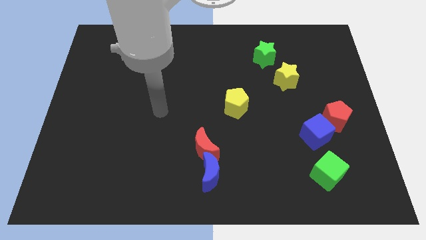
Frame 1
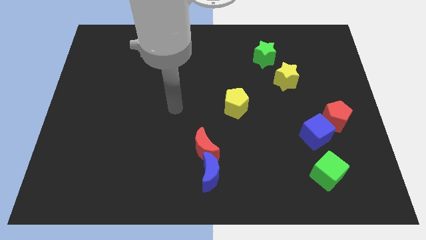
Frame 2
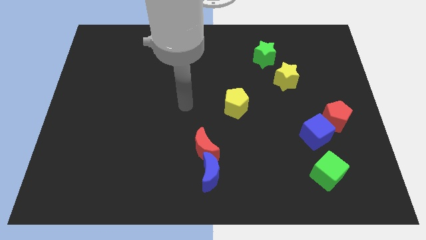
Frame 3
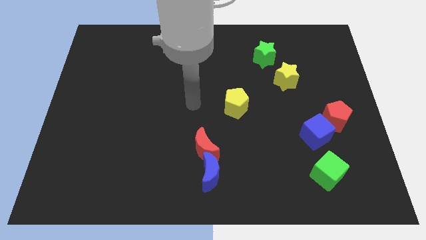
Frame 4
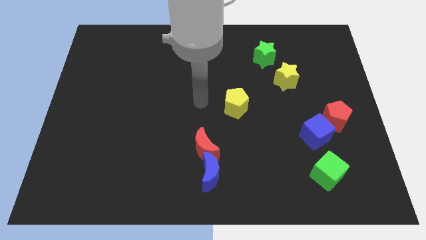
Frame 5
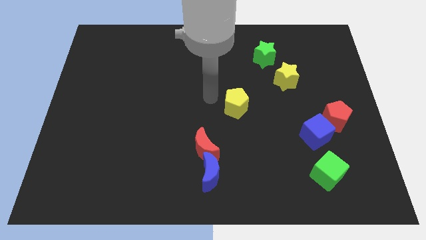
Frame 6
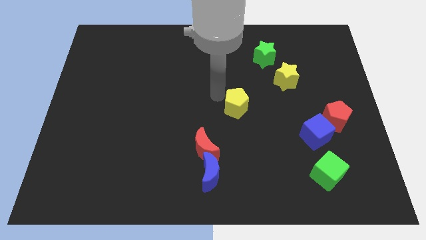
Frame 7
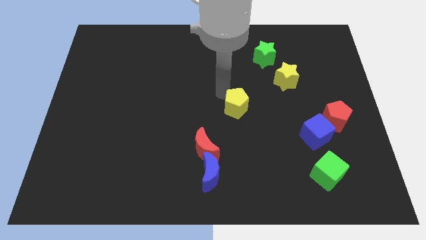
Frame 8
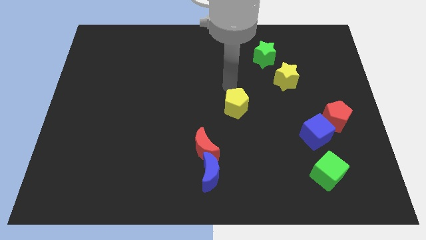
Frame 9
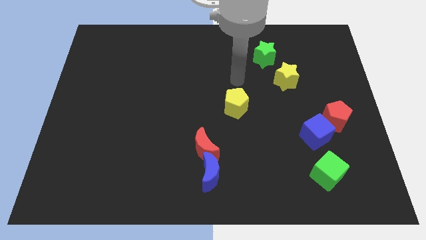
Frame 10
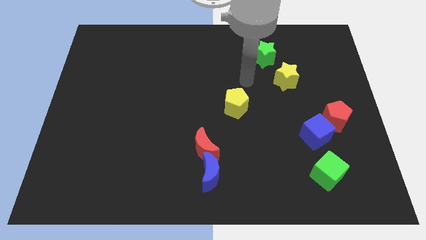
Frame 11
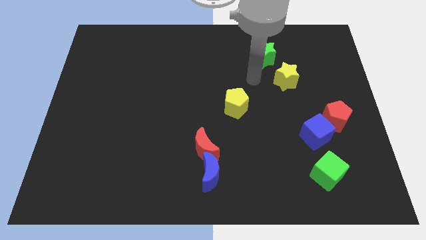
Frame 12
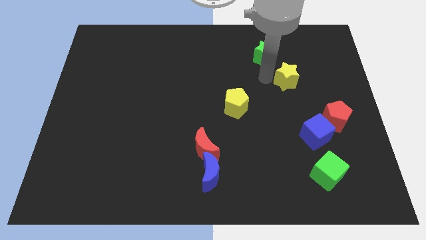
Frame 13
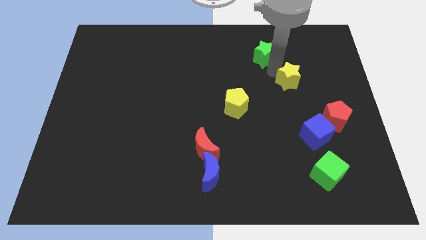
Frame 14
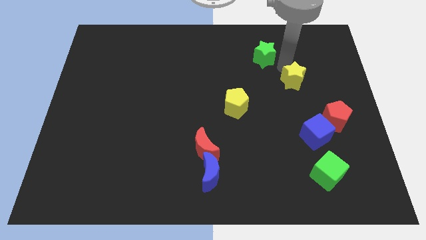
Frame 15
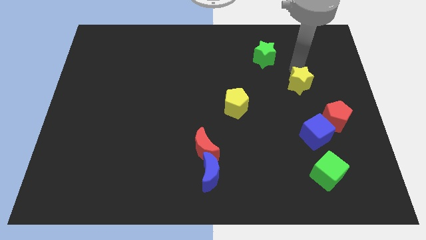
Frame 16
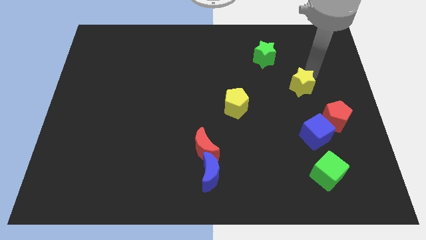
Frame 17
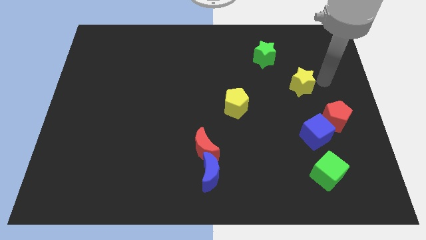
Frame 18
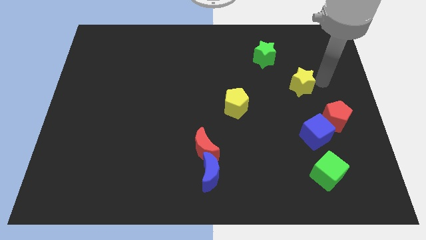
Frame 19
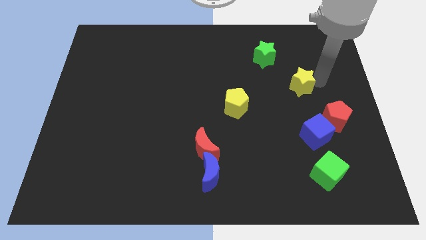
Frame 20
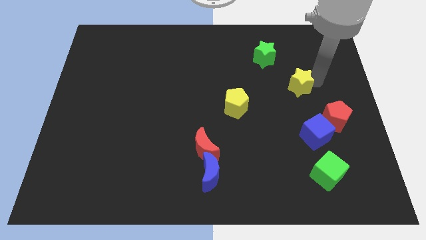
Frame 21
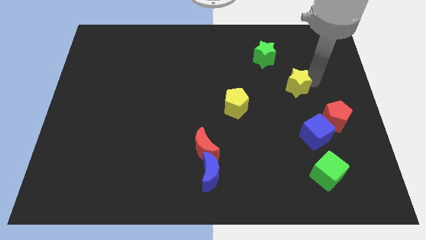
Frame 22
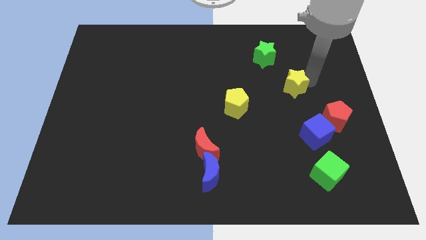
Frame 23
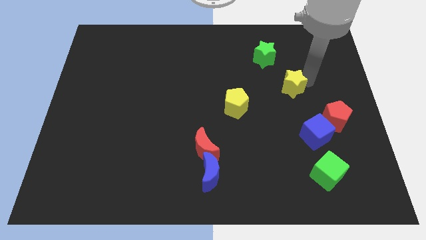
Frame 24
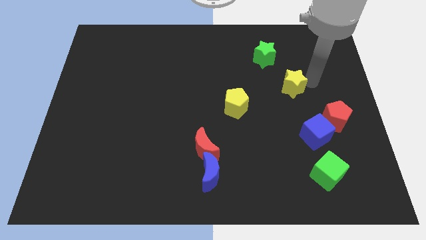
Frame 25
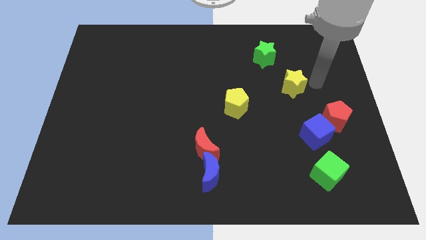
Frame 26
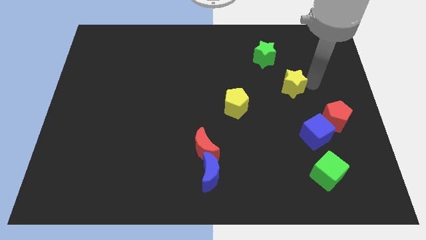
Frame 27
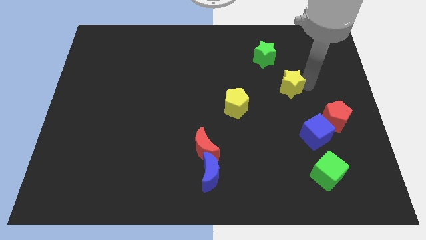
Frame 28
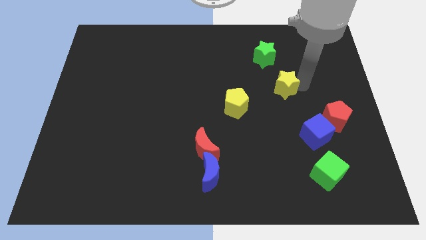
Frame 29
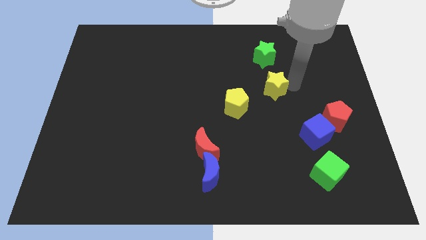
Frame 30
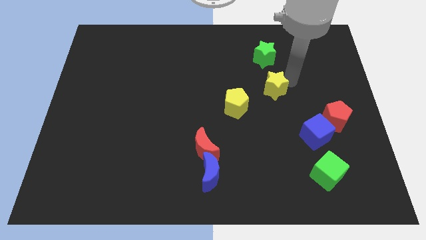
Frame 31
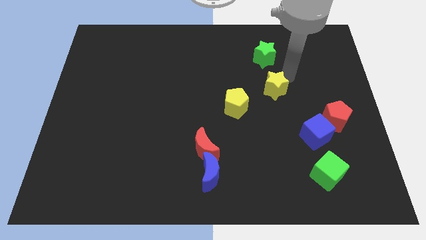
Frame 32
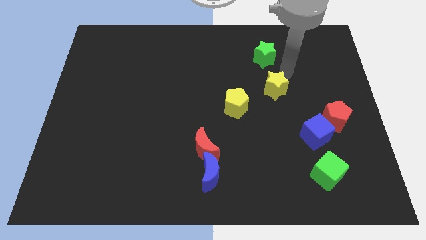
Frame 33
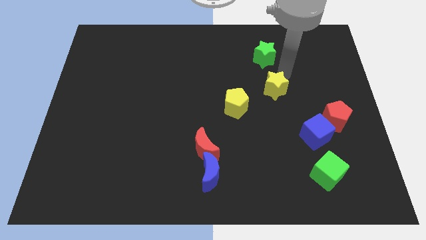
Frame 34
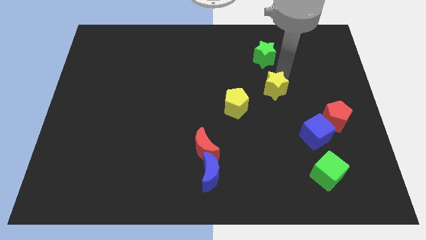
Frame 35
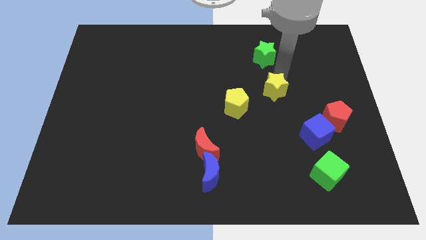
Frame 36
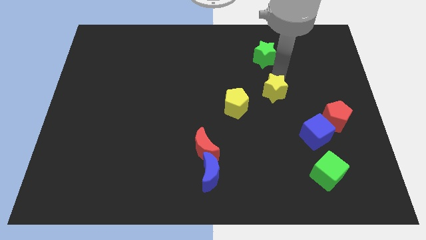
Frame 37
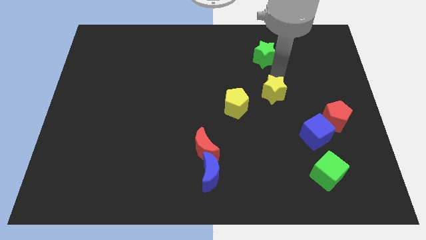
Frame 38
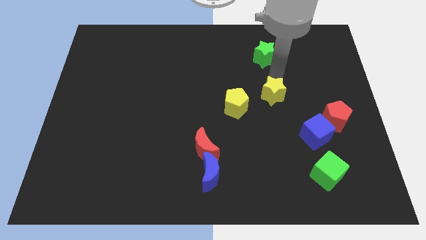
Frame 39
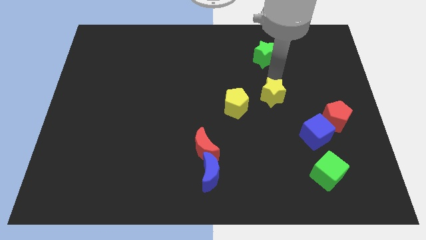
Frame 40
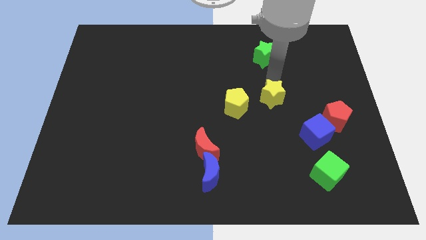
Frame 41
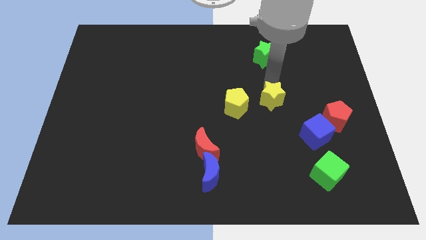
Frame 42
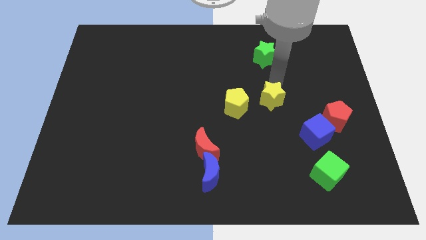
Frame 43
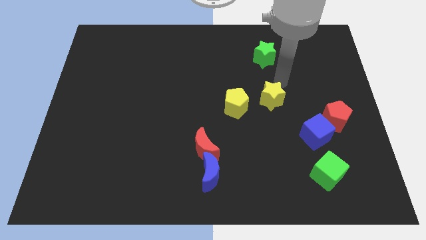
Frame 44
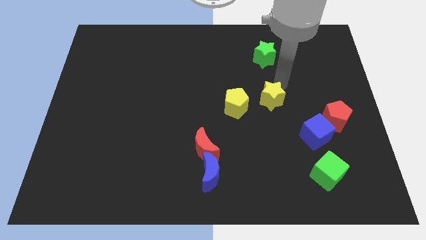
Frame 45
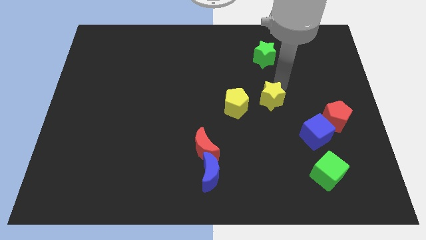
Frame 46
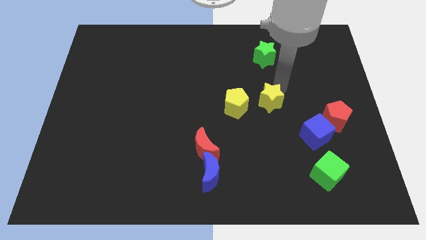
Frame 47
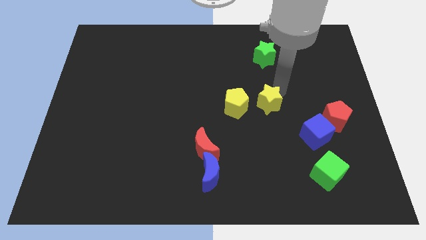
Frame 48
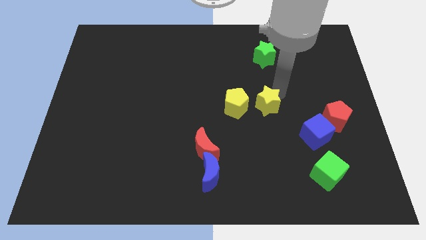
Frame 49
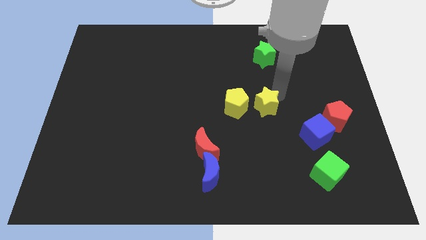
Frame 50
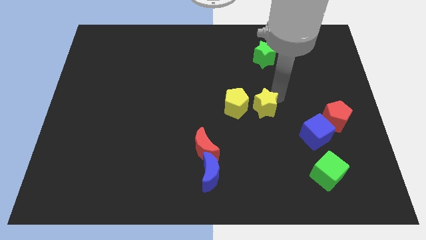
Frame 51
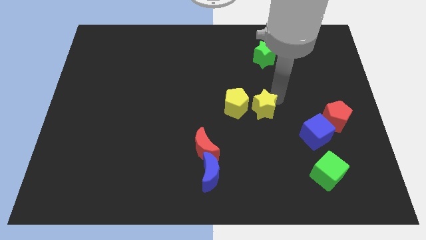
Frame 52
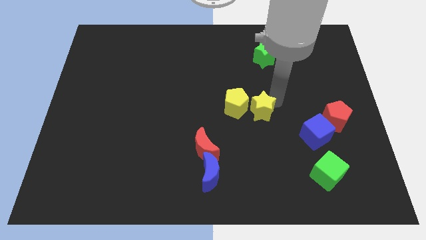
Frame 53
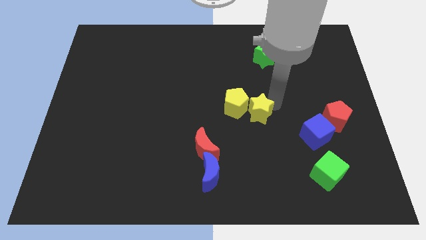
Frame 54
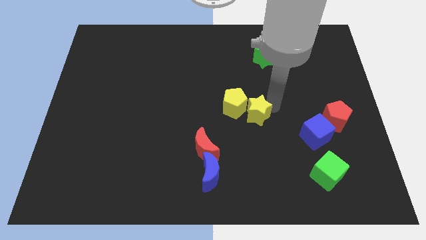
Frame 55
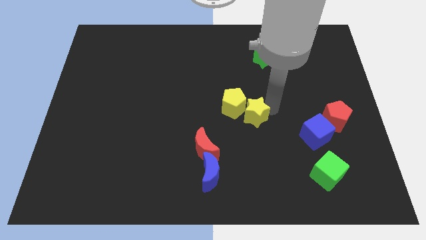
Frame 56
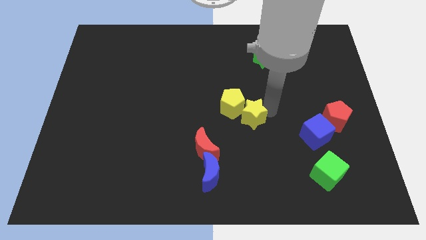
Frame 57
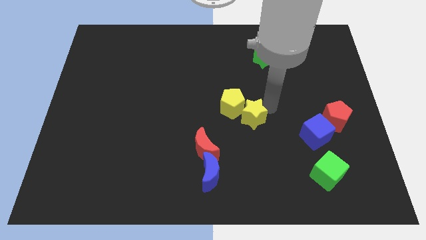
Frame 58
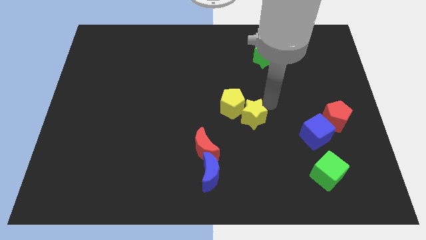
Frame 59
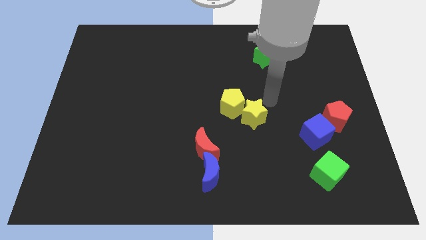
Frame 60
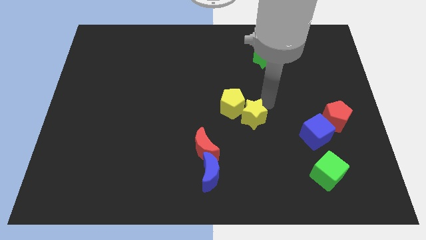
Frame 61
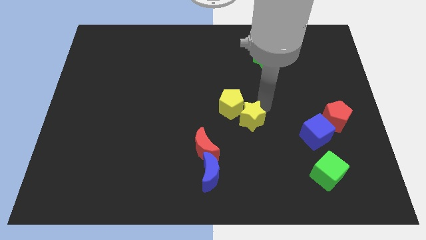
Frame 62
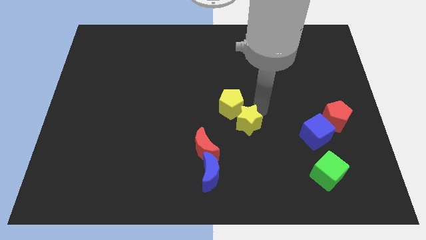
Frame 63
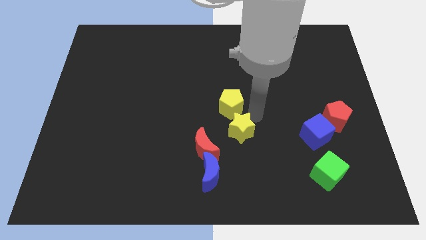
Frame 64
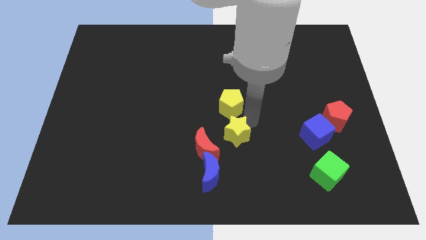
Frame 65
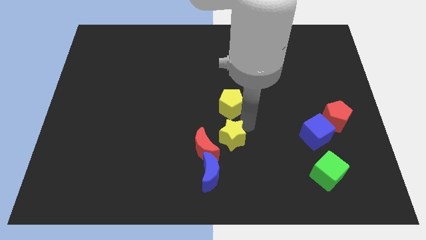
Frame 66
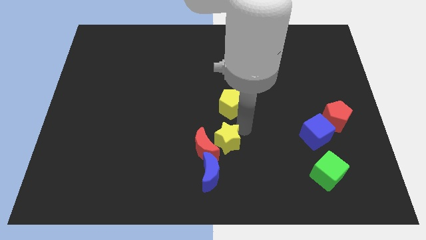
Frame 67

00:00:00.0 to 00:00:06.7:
push the yellow star next to the red moon
